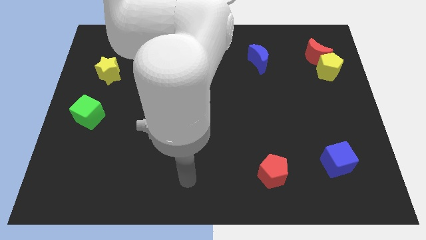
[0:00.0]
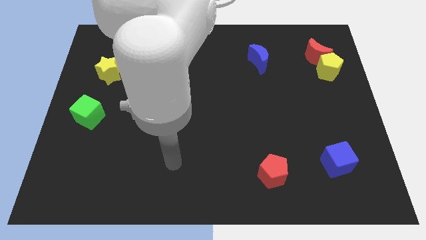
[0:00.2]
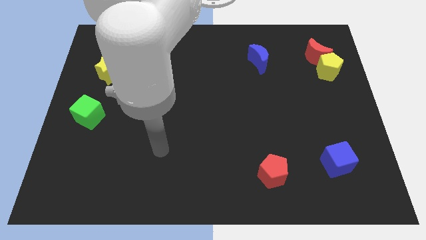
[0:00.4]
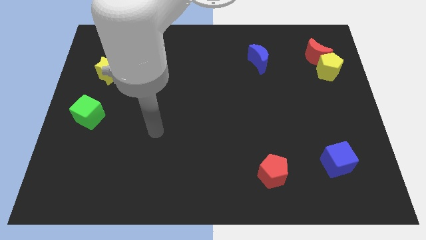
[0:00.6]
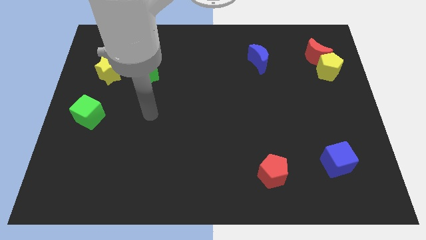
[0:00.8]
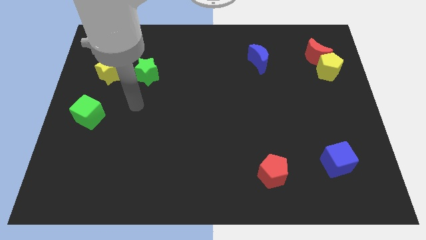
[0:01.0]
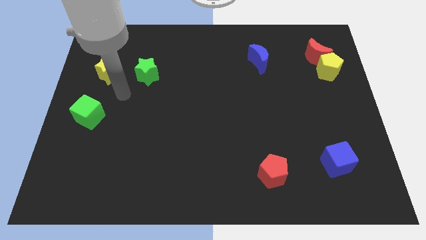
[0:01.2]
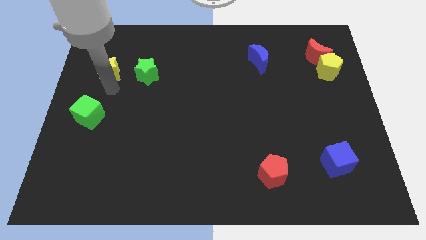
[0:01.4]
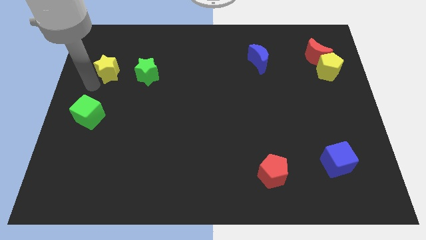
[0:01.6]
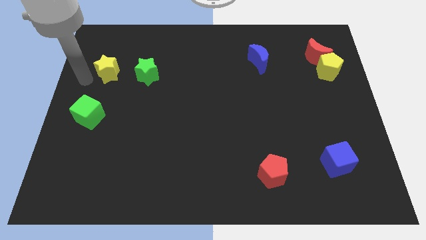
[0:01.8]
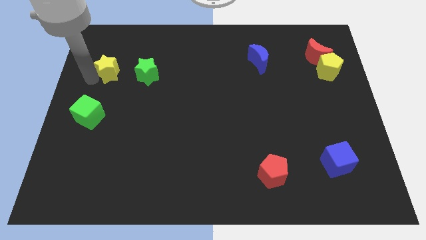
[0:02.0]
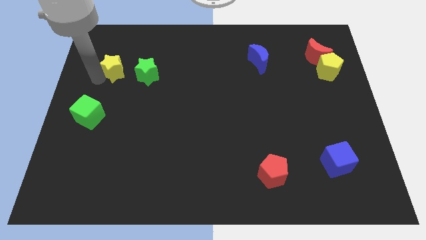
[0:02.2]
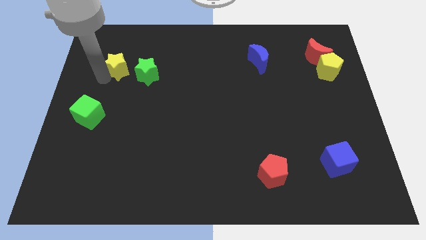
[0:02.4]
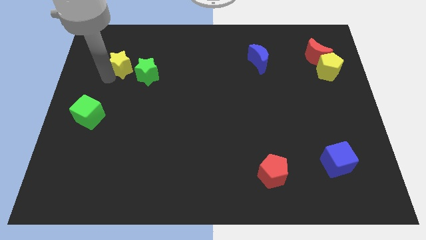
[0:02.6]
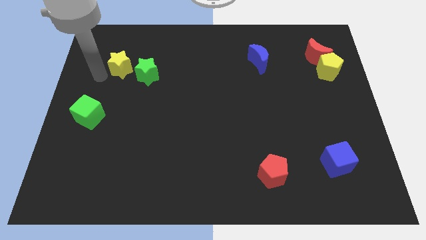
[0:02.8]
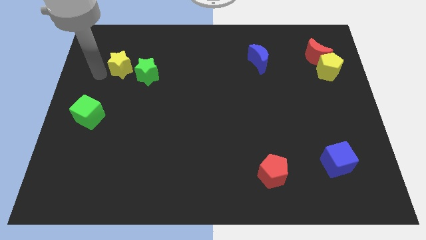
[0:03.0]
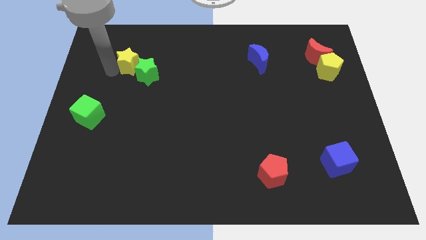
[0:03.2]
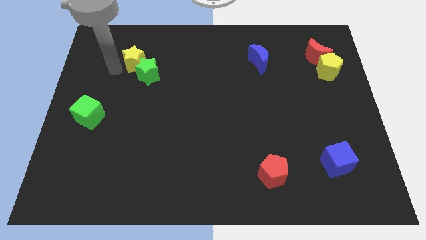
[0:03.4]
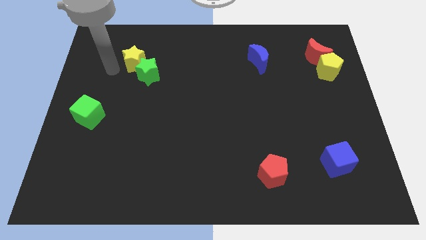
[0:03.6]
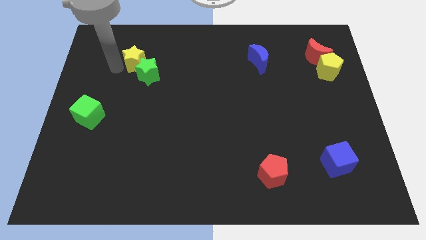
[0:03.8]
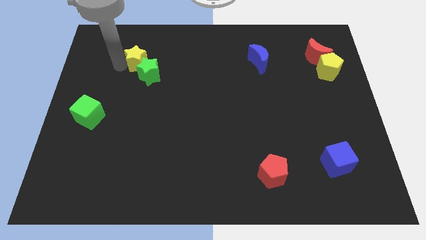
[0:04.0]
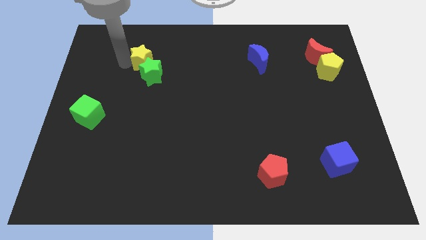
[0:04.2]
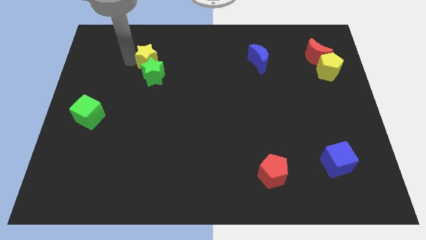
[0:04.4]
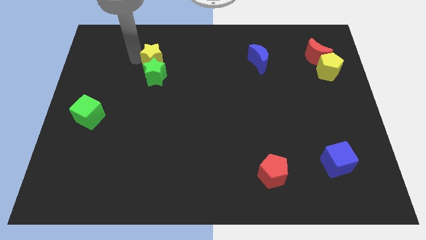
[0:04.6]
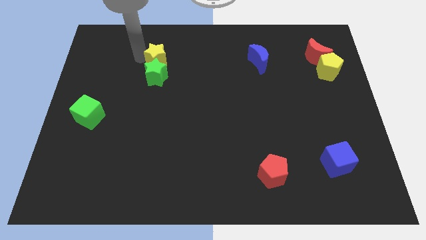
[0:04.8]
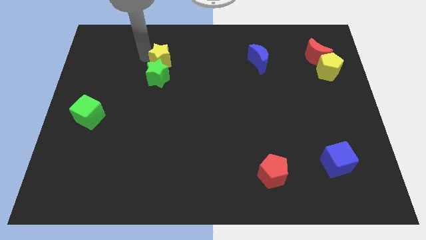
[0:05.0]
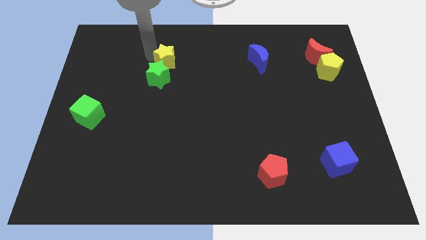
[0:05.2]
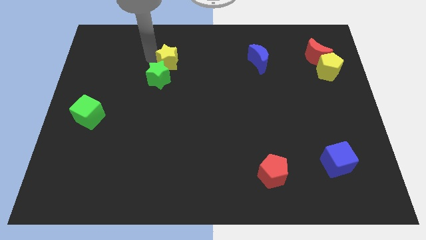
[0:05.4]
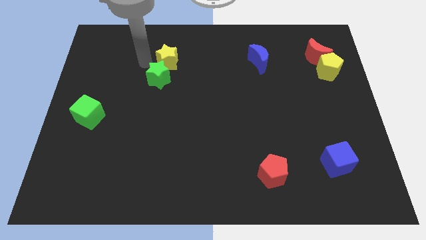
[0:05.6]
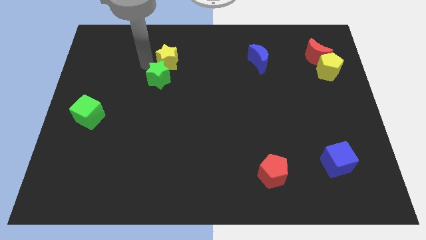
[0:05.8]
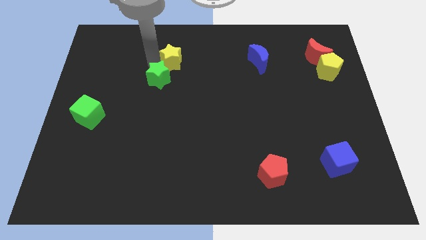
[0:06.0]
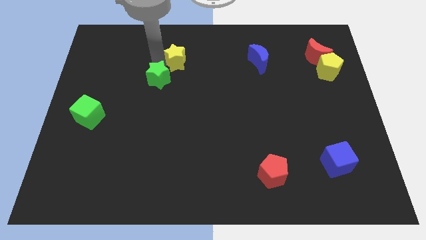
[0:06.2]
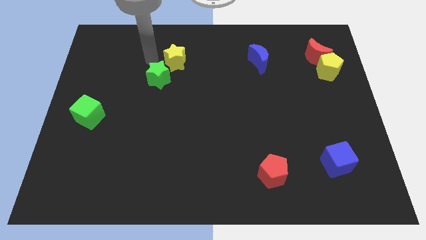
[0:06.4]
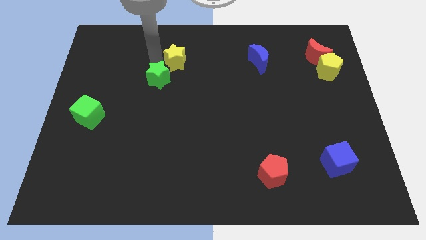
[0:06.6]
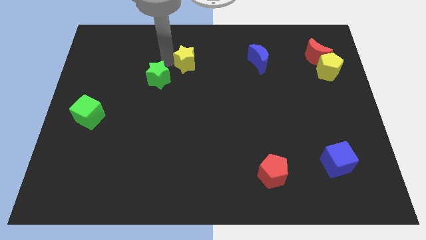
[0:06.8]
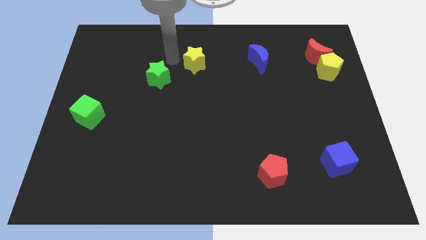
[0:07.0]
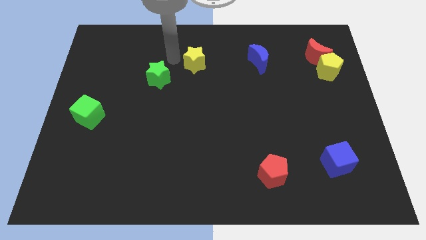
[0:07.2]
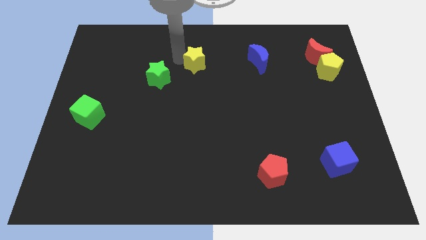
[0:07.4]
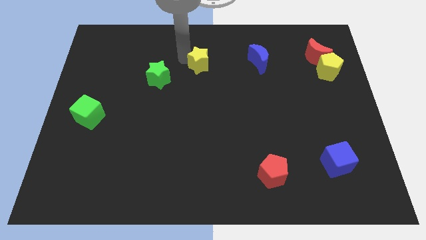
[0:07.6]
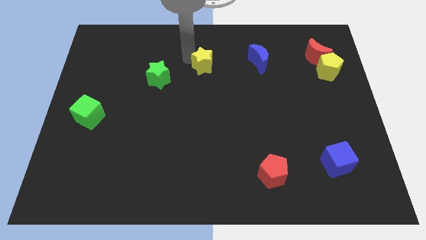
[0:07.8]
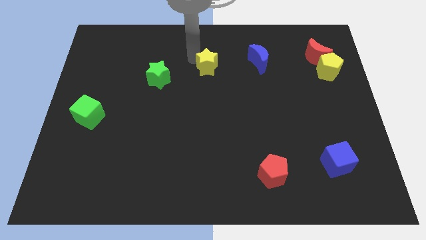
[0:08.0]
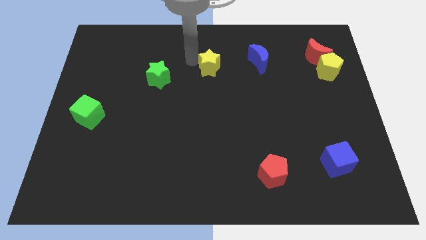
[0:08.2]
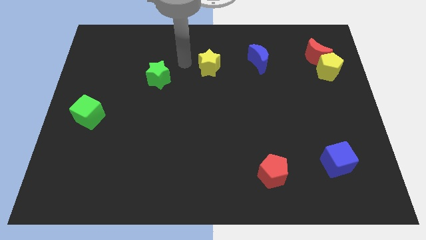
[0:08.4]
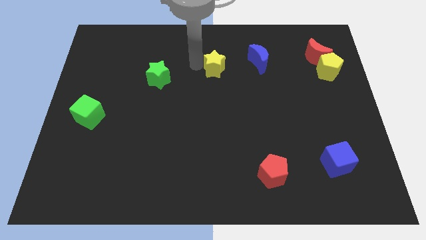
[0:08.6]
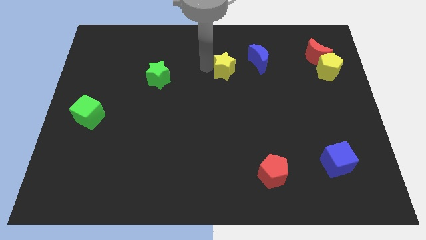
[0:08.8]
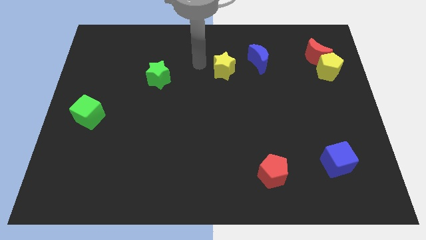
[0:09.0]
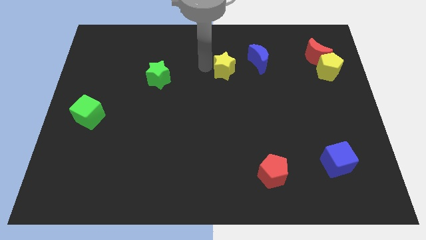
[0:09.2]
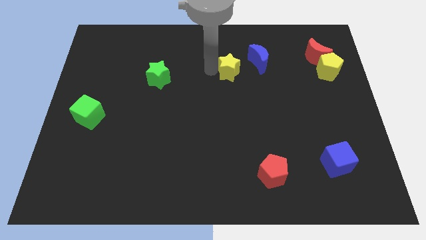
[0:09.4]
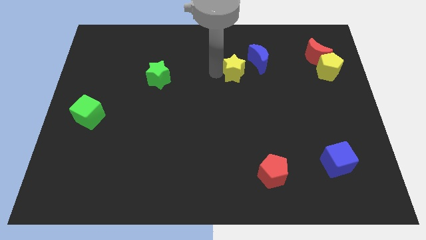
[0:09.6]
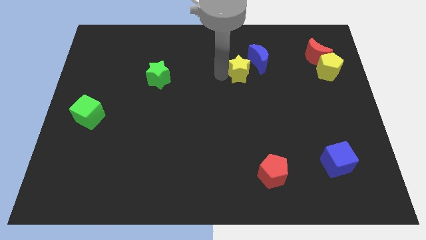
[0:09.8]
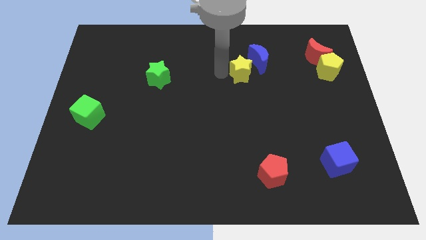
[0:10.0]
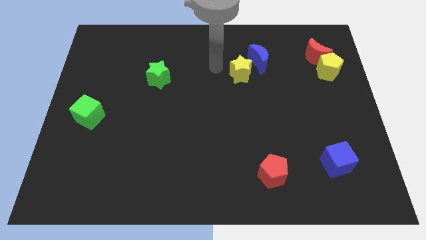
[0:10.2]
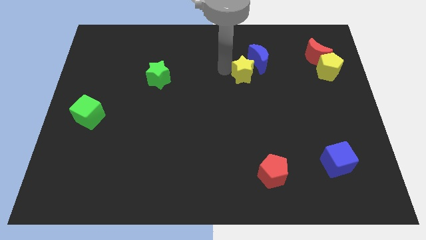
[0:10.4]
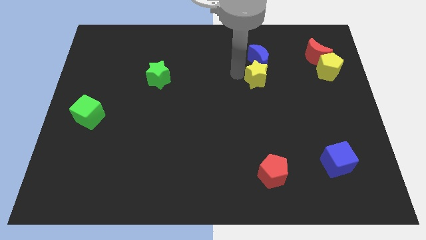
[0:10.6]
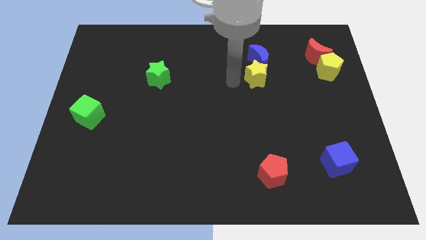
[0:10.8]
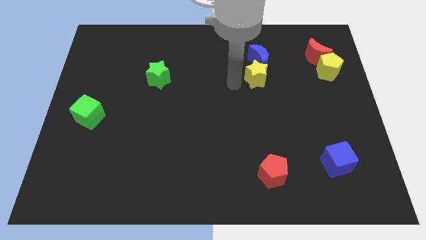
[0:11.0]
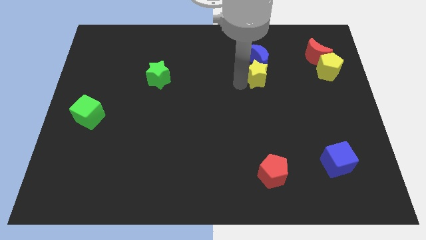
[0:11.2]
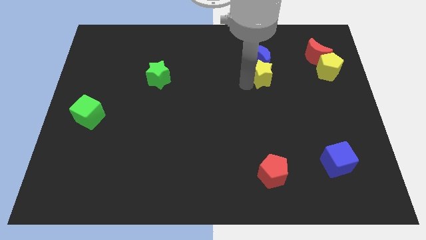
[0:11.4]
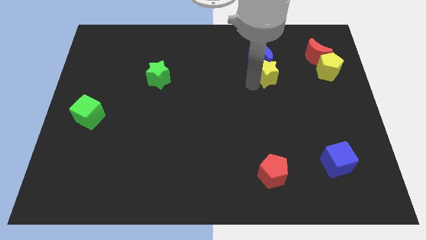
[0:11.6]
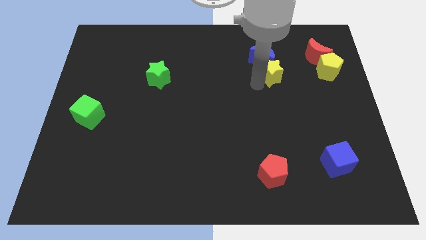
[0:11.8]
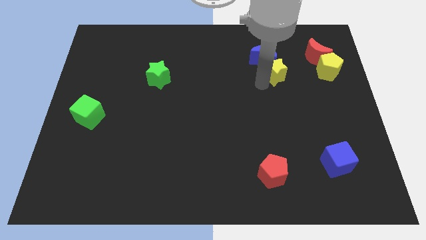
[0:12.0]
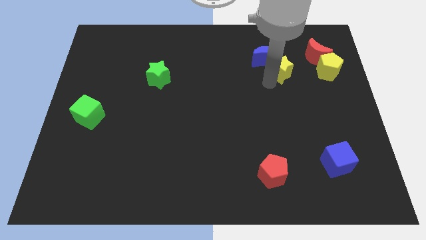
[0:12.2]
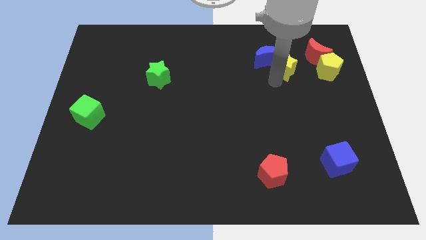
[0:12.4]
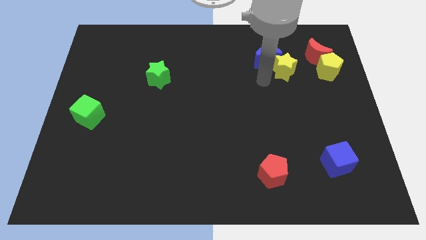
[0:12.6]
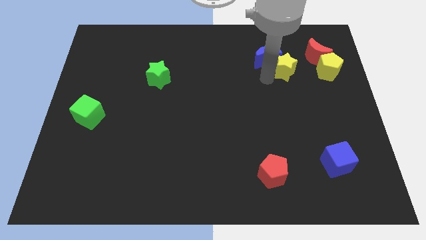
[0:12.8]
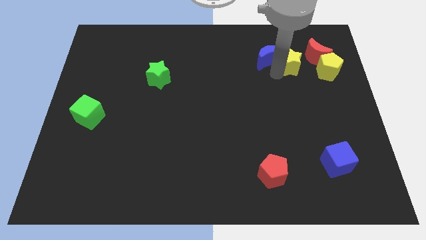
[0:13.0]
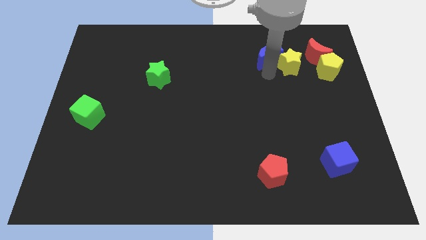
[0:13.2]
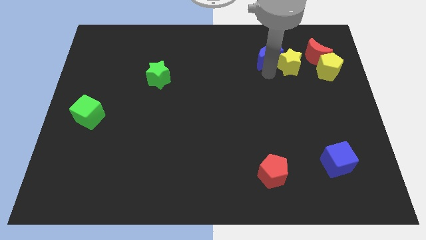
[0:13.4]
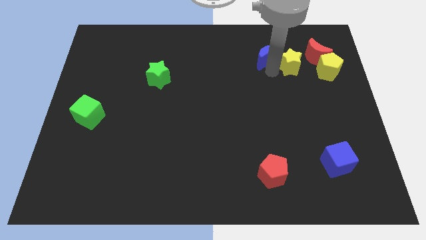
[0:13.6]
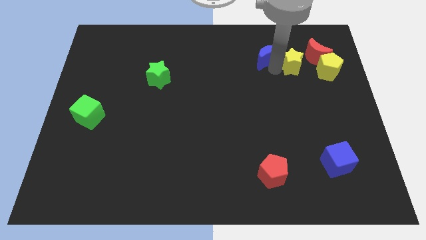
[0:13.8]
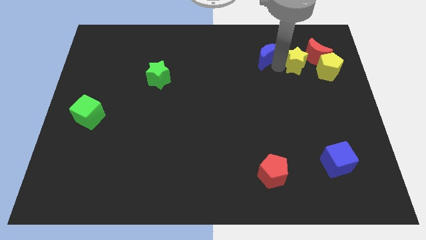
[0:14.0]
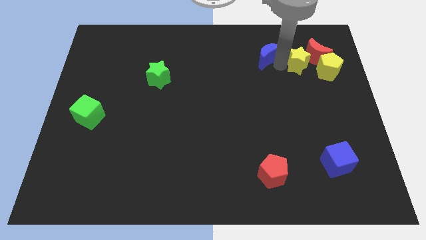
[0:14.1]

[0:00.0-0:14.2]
move the yellow star close to the red moon
